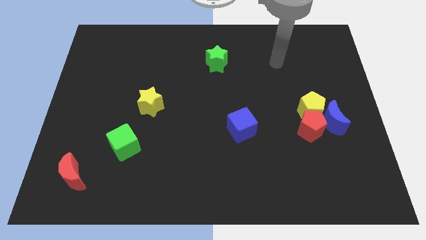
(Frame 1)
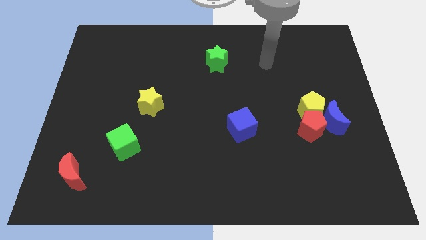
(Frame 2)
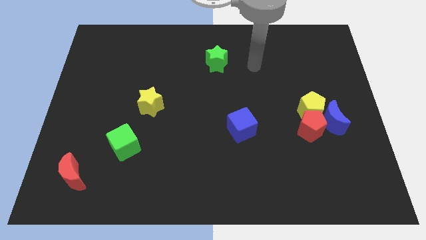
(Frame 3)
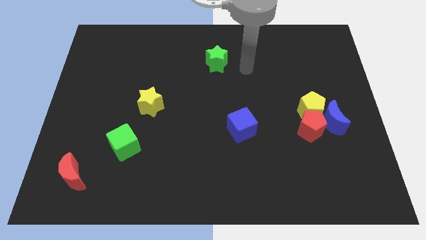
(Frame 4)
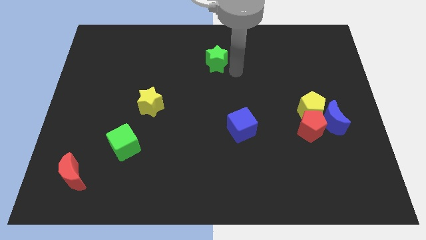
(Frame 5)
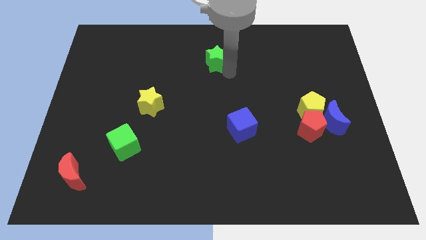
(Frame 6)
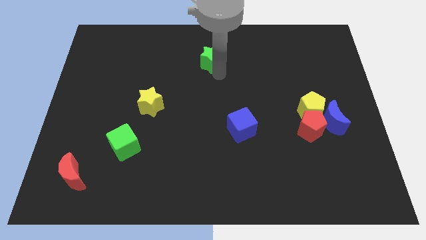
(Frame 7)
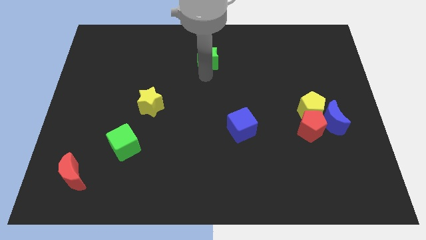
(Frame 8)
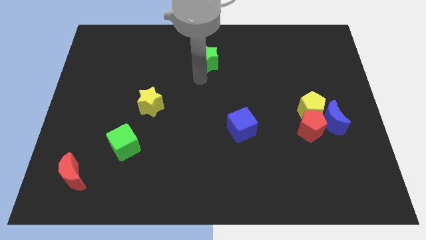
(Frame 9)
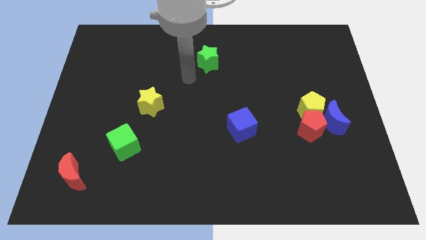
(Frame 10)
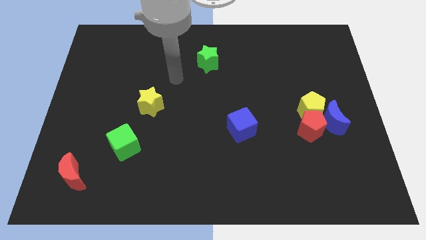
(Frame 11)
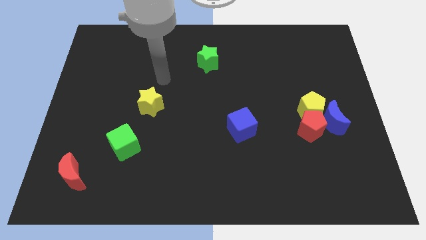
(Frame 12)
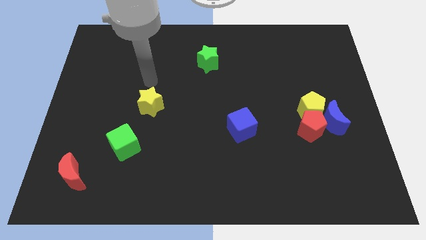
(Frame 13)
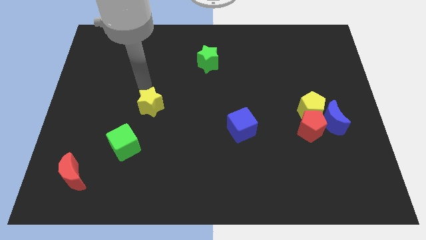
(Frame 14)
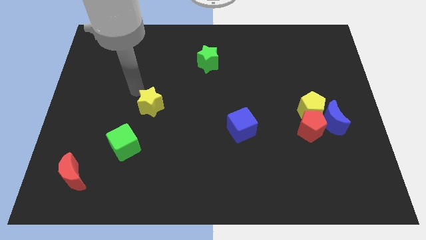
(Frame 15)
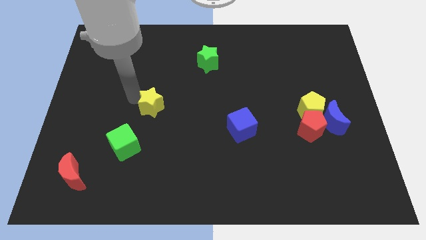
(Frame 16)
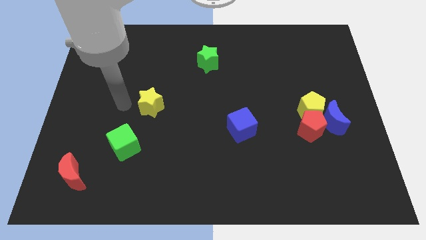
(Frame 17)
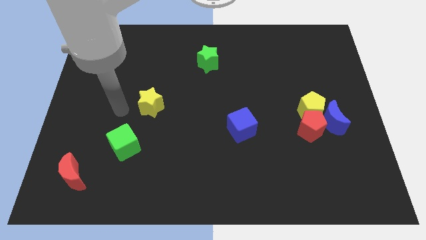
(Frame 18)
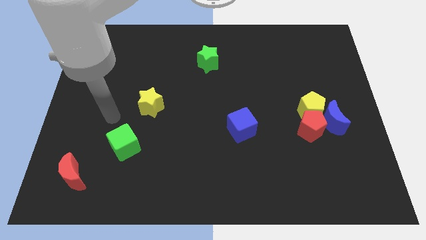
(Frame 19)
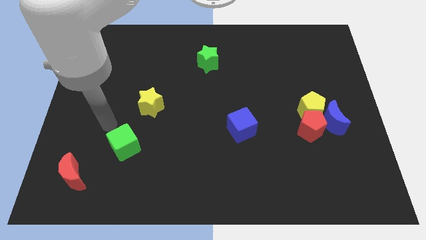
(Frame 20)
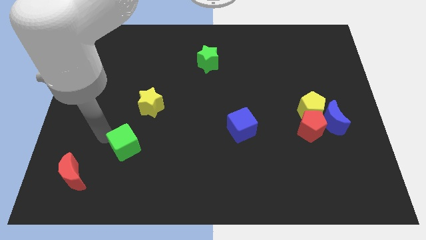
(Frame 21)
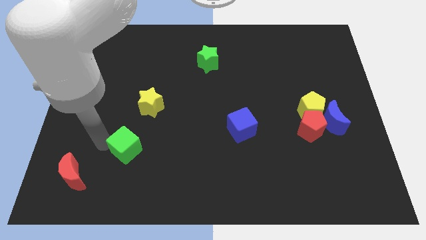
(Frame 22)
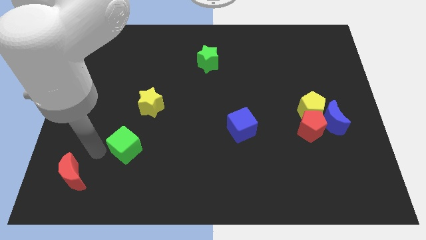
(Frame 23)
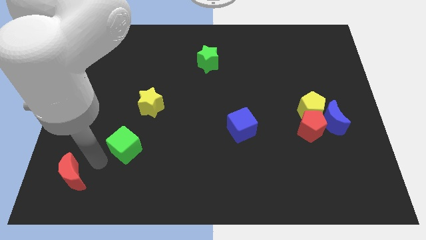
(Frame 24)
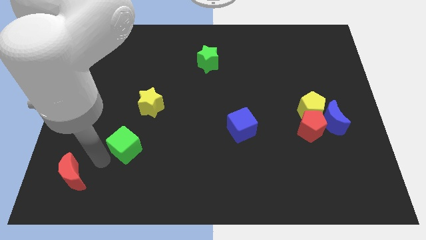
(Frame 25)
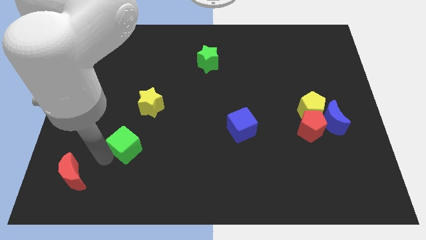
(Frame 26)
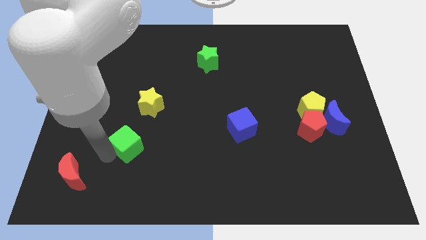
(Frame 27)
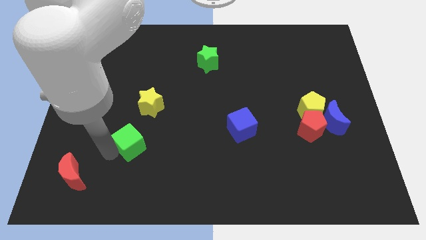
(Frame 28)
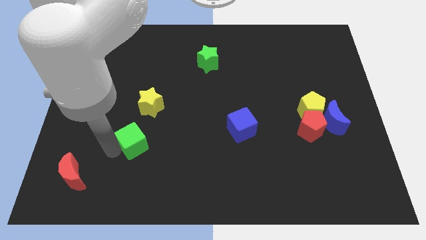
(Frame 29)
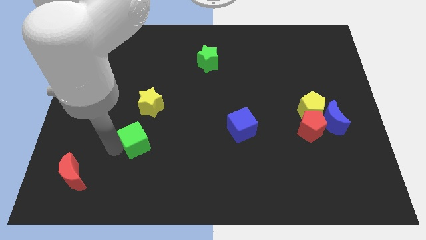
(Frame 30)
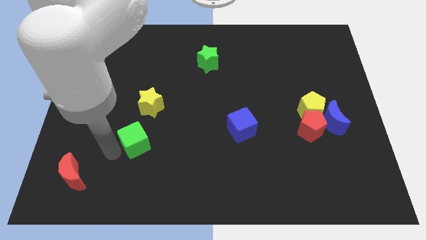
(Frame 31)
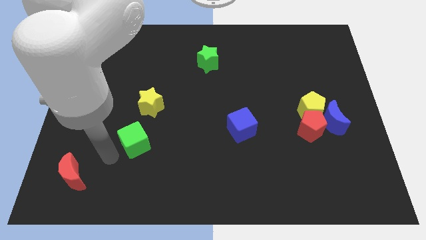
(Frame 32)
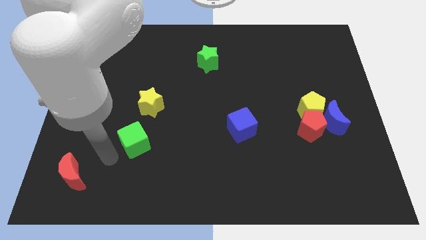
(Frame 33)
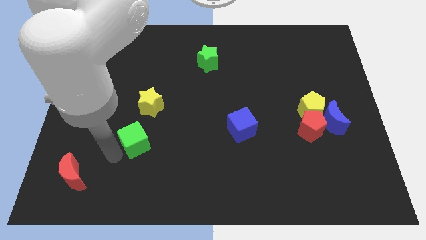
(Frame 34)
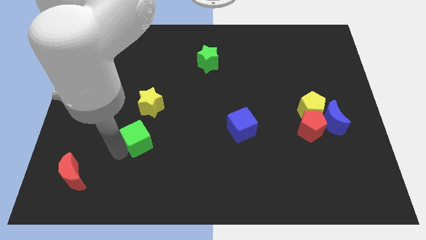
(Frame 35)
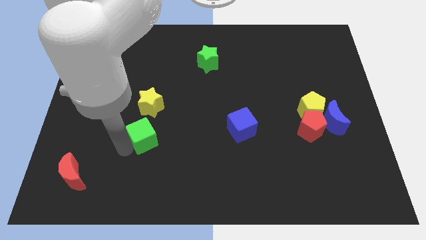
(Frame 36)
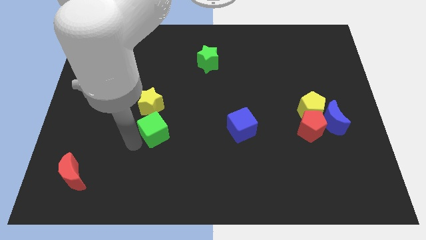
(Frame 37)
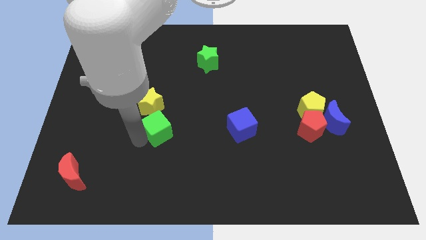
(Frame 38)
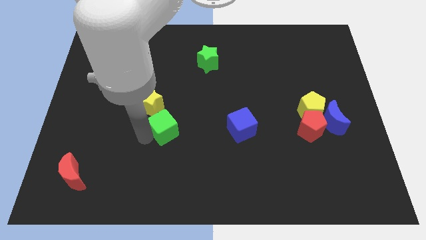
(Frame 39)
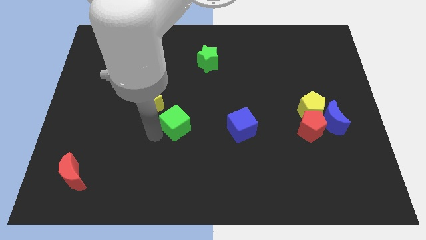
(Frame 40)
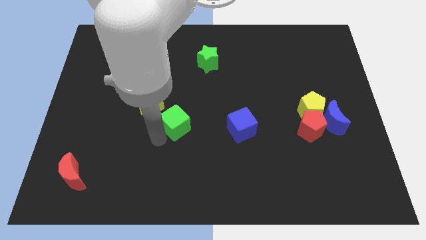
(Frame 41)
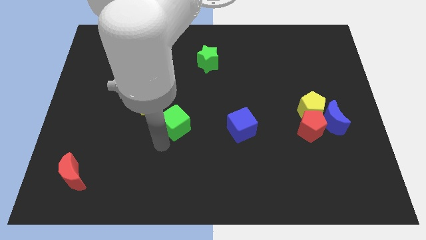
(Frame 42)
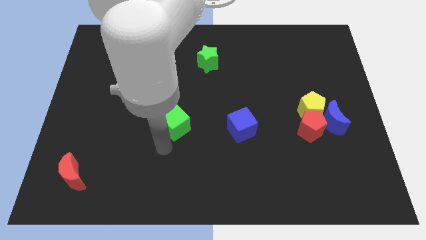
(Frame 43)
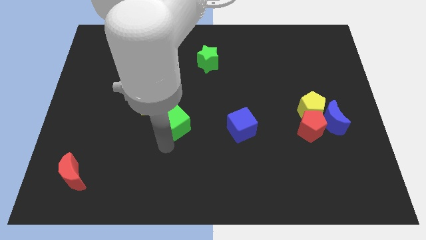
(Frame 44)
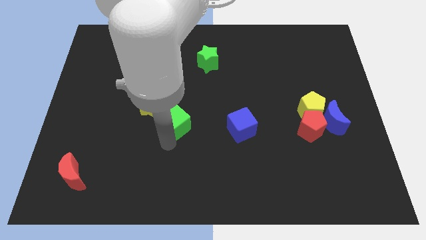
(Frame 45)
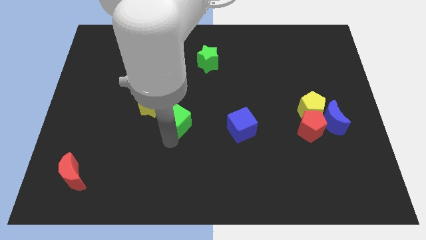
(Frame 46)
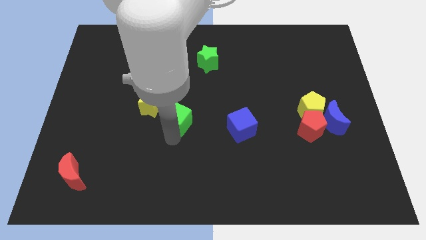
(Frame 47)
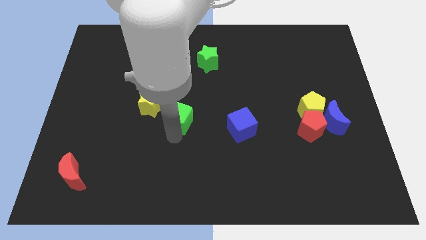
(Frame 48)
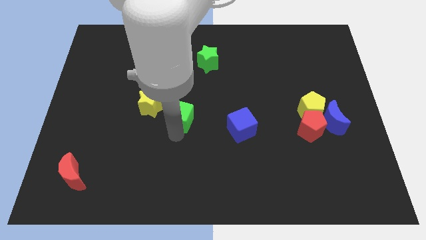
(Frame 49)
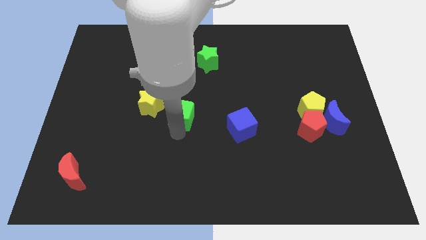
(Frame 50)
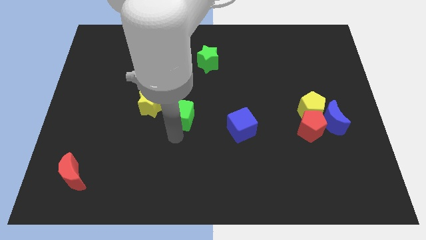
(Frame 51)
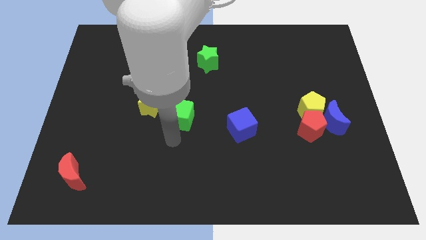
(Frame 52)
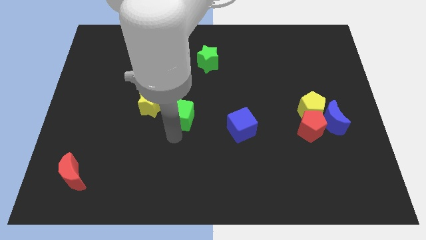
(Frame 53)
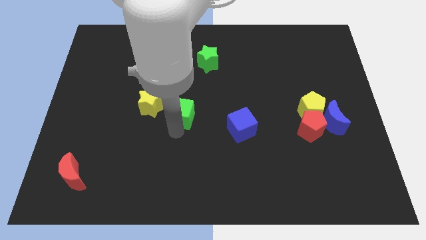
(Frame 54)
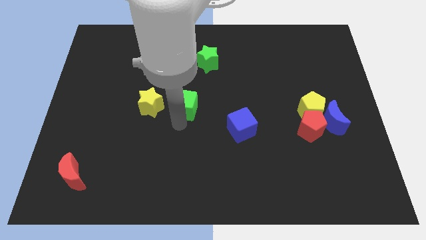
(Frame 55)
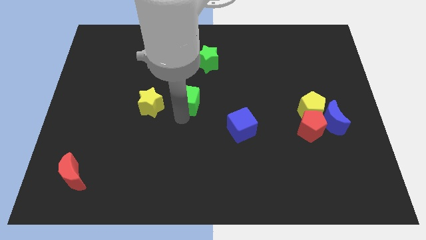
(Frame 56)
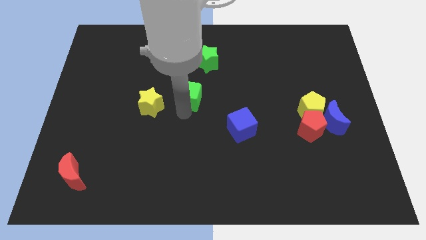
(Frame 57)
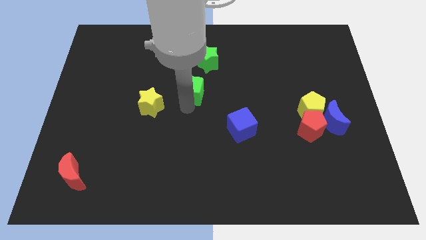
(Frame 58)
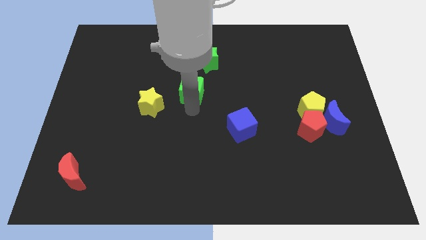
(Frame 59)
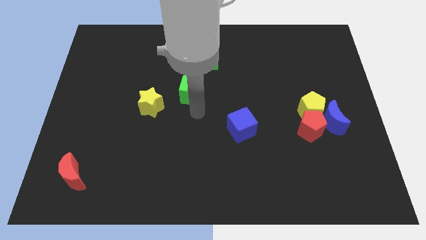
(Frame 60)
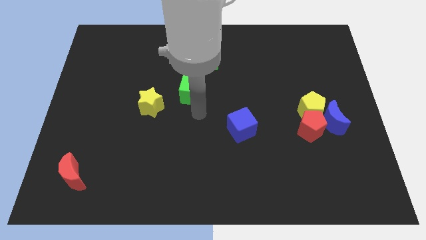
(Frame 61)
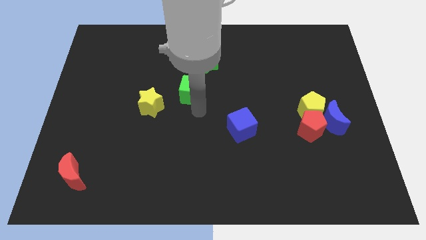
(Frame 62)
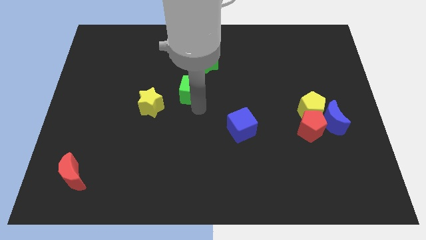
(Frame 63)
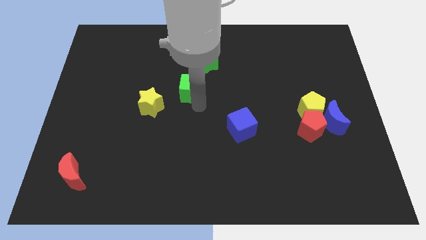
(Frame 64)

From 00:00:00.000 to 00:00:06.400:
slide the green cube to the bottom left side of the green star

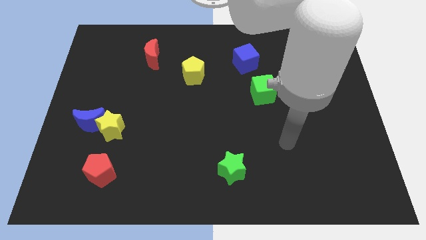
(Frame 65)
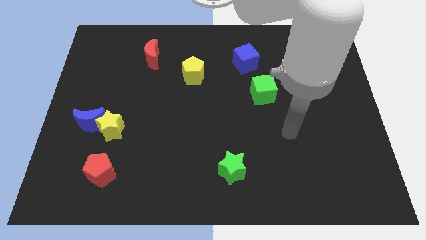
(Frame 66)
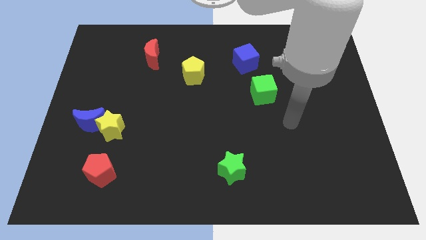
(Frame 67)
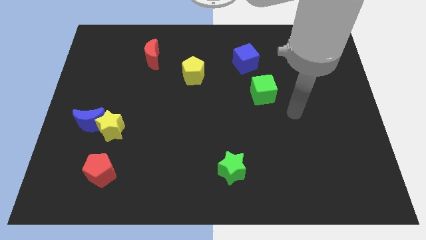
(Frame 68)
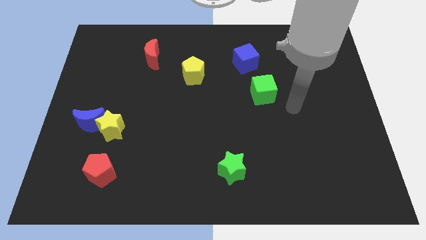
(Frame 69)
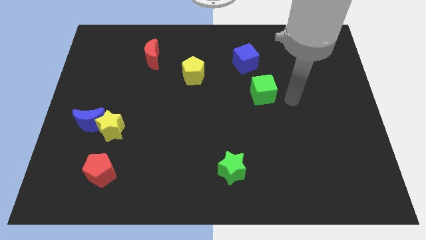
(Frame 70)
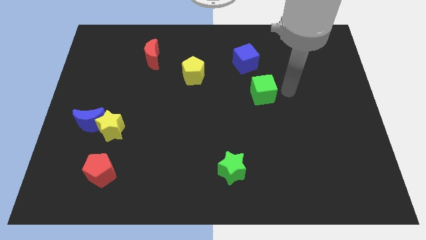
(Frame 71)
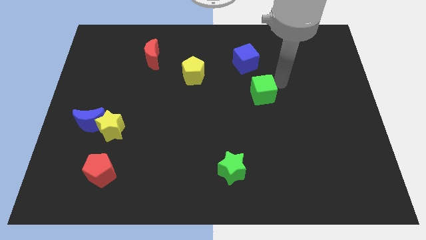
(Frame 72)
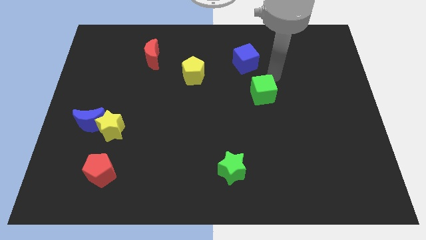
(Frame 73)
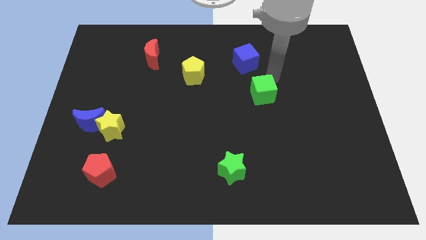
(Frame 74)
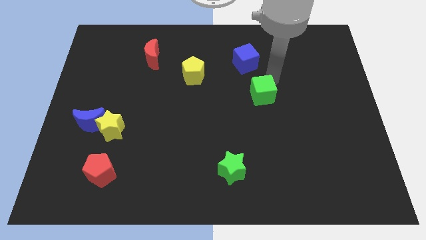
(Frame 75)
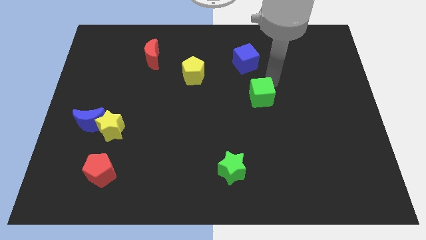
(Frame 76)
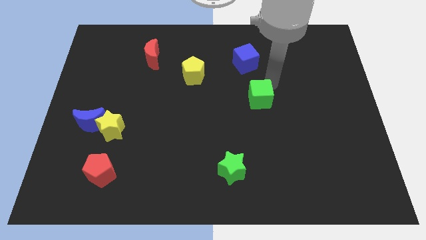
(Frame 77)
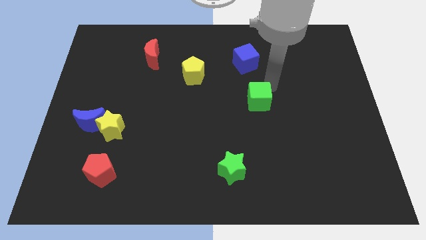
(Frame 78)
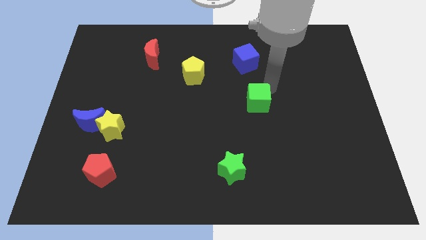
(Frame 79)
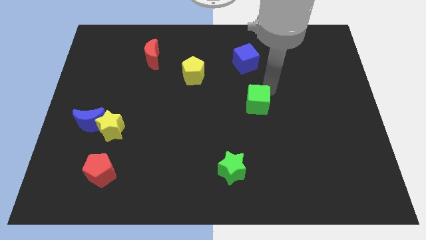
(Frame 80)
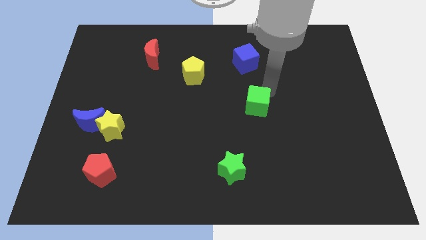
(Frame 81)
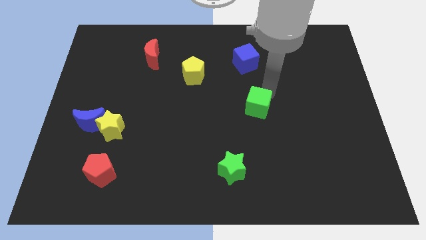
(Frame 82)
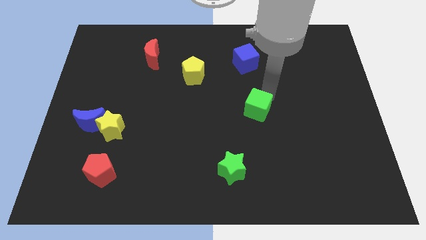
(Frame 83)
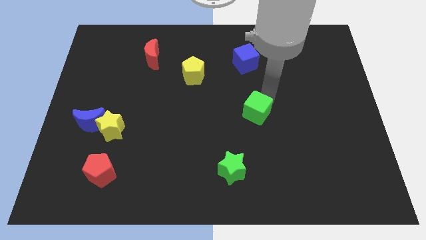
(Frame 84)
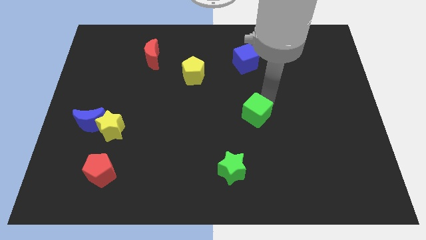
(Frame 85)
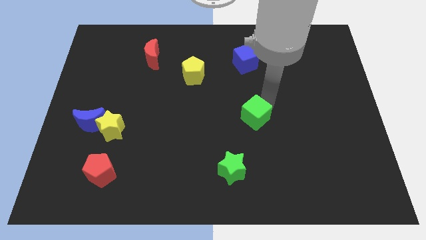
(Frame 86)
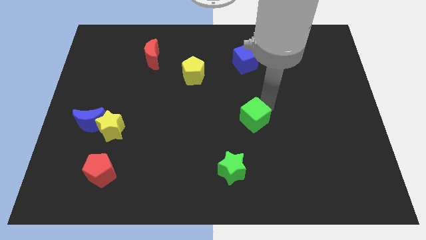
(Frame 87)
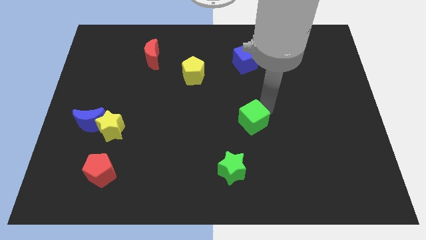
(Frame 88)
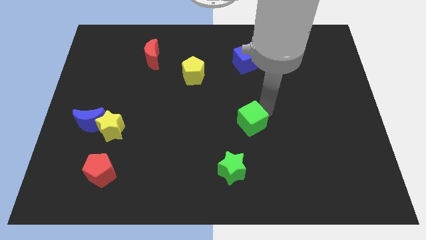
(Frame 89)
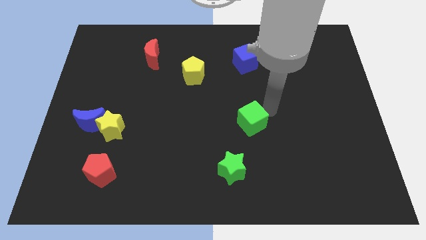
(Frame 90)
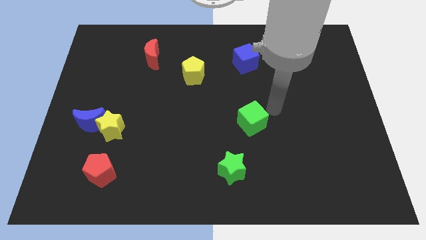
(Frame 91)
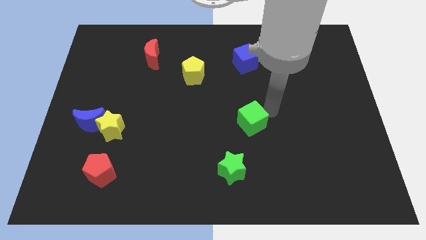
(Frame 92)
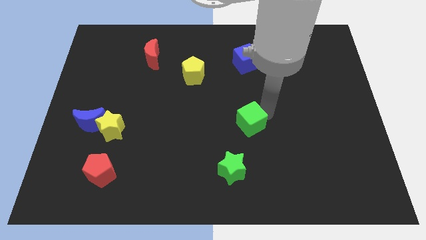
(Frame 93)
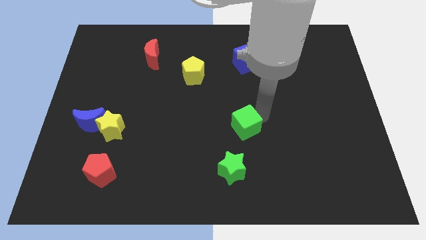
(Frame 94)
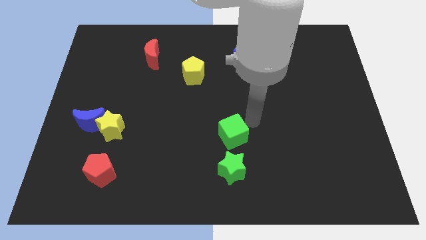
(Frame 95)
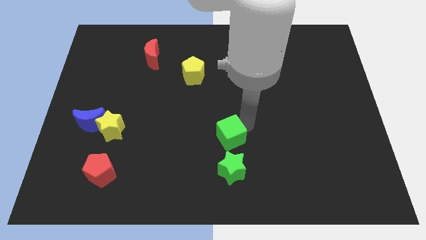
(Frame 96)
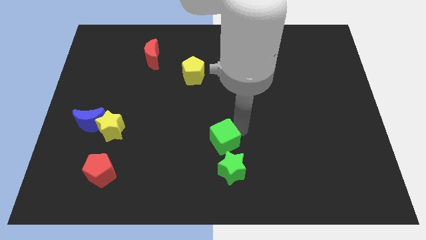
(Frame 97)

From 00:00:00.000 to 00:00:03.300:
slide the green cube to the top left side of the green star
